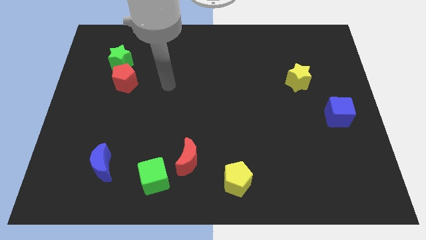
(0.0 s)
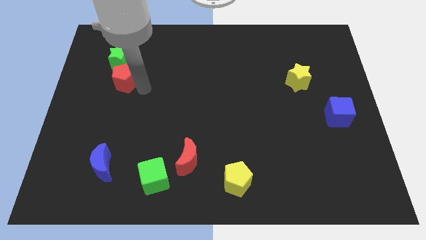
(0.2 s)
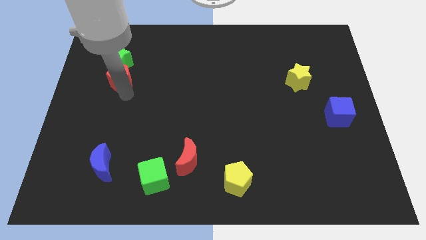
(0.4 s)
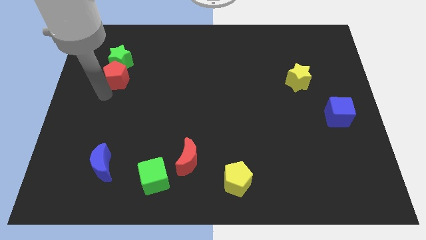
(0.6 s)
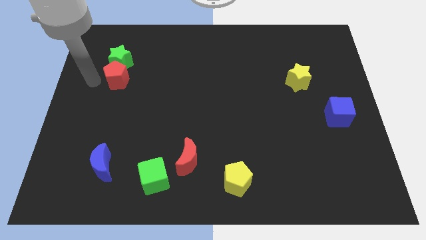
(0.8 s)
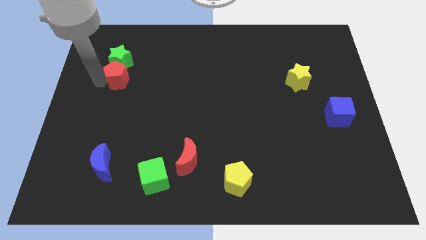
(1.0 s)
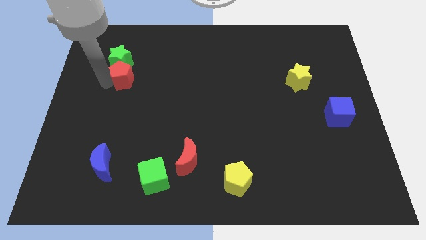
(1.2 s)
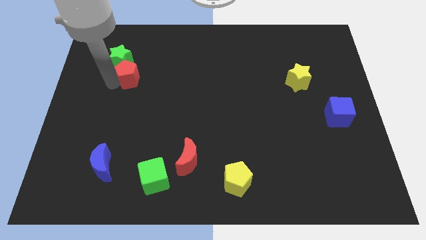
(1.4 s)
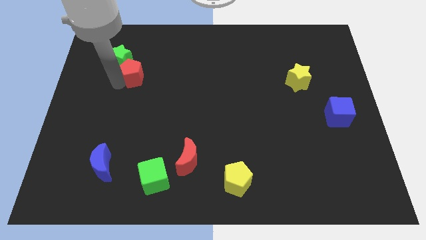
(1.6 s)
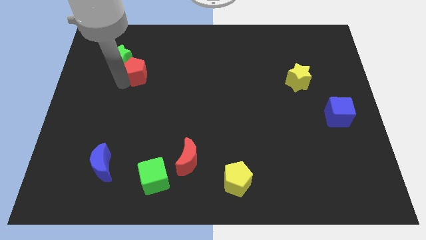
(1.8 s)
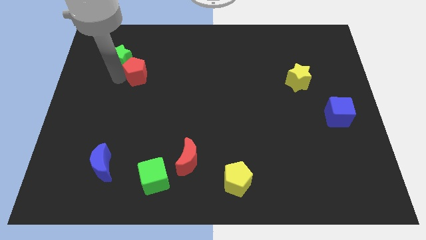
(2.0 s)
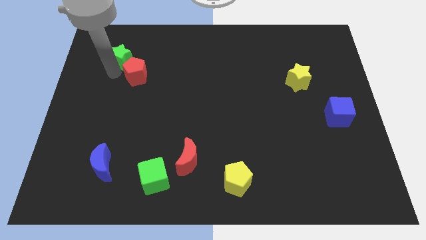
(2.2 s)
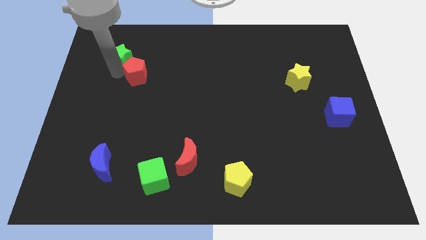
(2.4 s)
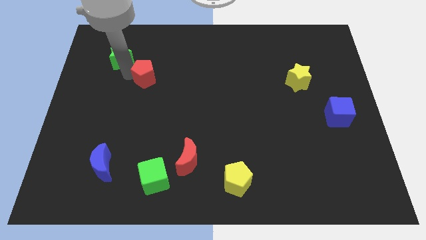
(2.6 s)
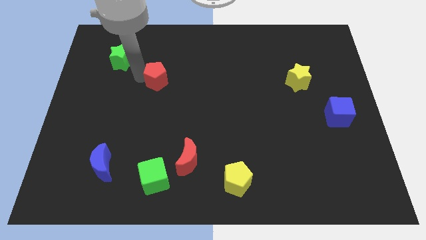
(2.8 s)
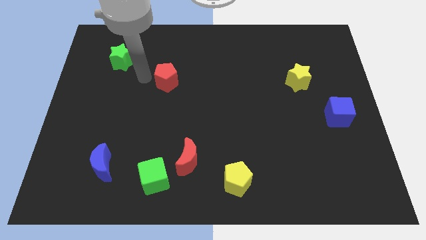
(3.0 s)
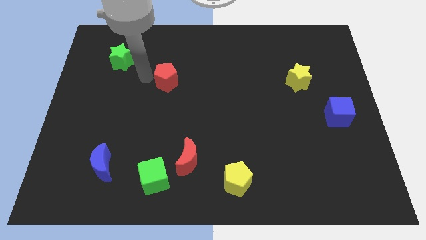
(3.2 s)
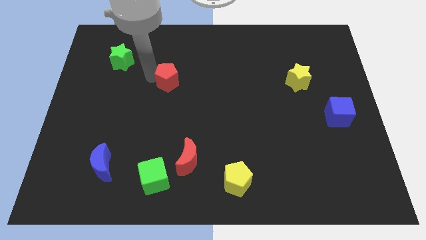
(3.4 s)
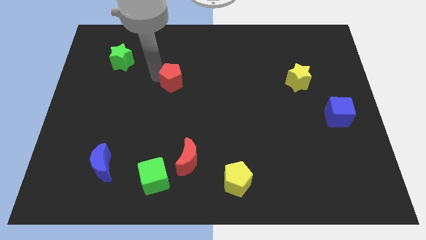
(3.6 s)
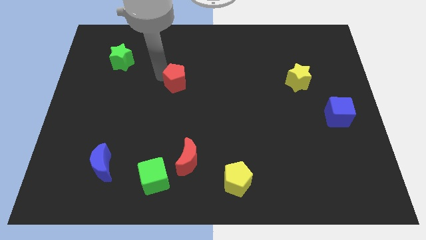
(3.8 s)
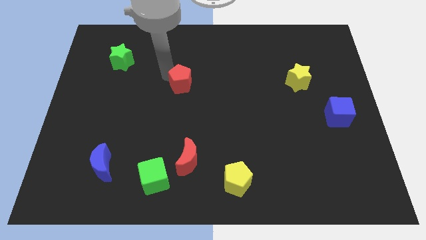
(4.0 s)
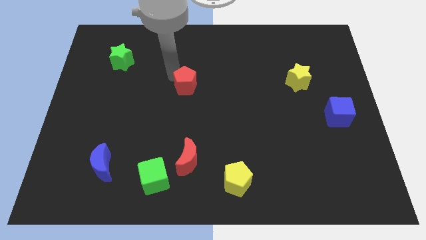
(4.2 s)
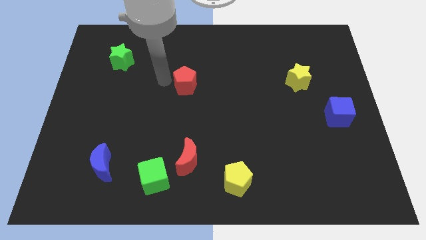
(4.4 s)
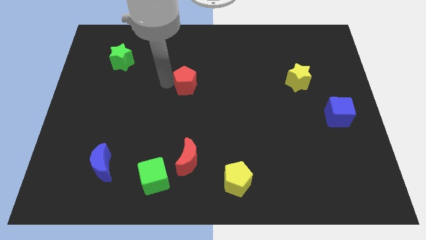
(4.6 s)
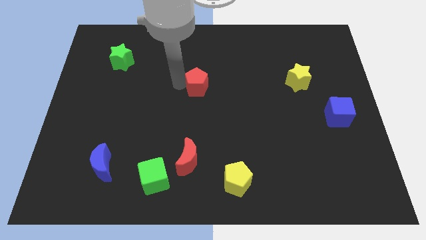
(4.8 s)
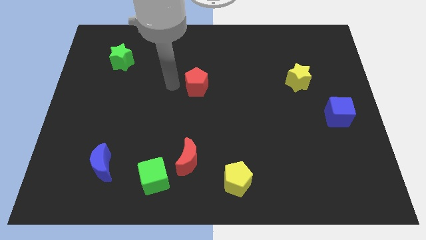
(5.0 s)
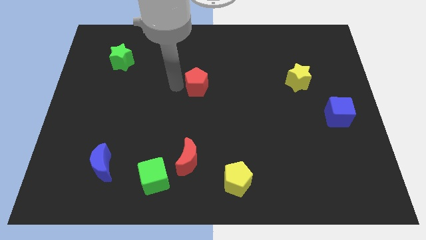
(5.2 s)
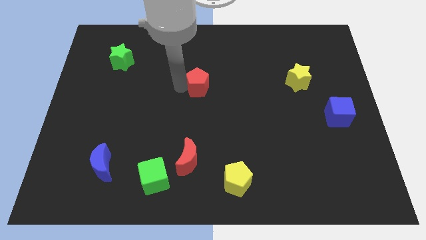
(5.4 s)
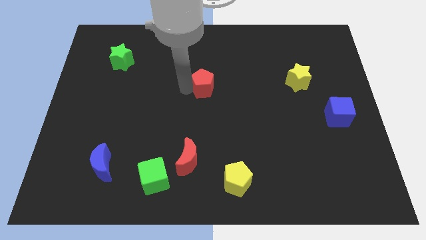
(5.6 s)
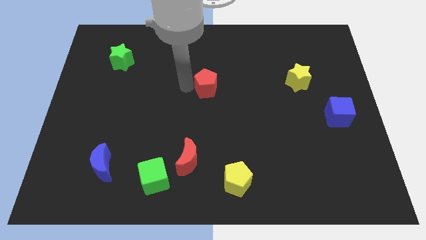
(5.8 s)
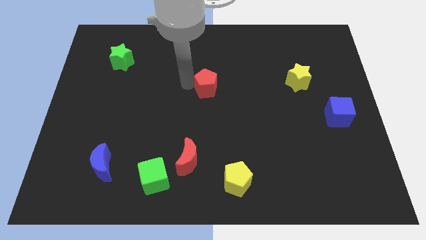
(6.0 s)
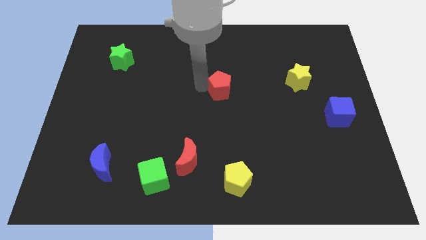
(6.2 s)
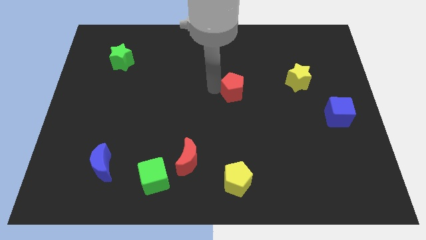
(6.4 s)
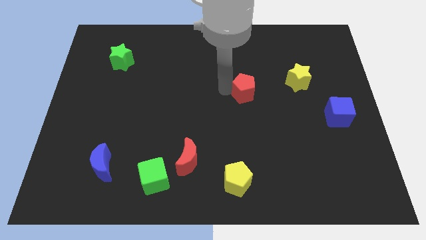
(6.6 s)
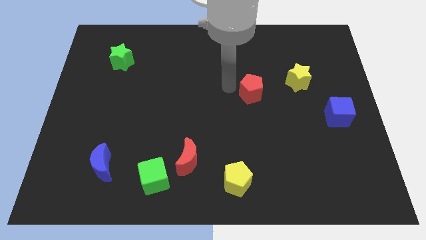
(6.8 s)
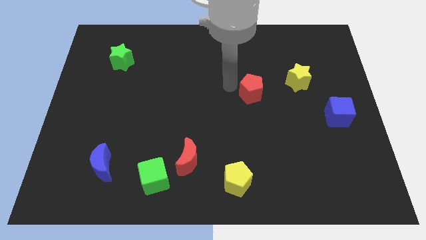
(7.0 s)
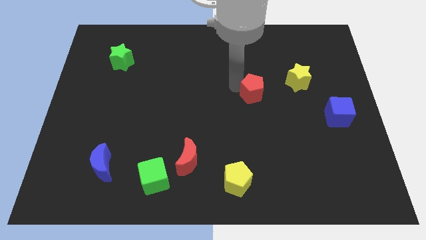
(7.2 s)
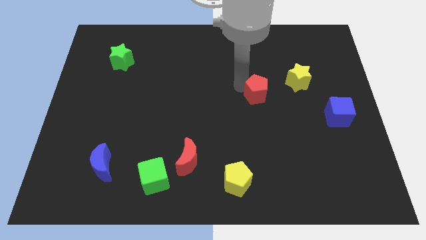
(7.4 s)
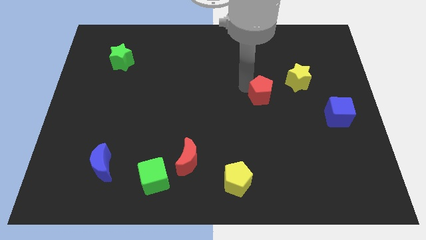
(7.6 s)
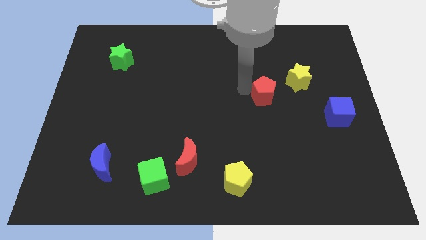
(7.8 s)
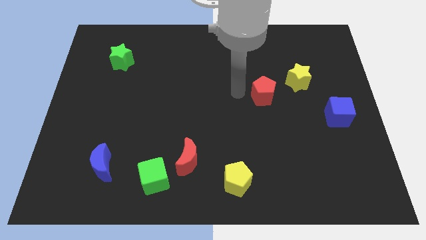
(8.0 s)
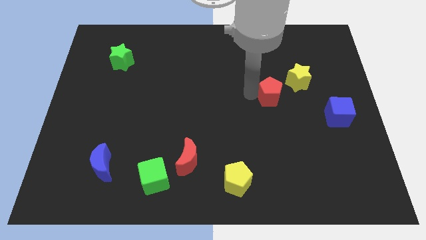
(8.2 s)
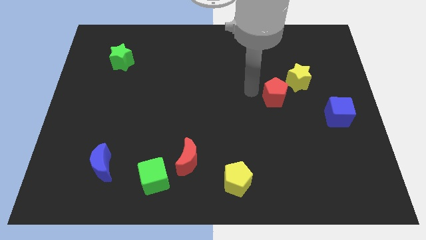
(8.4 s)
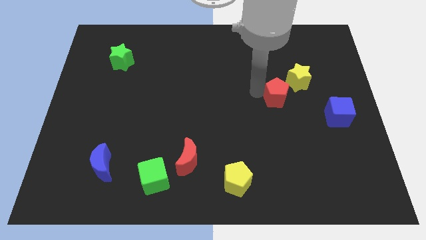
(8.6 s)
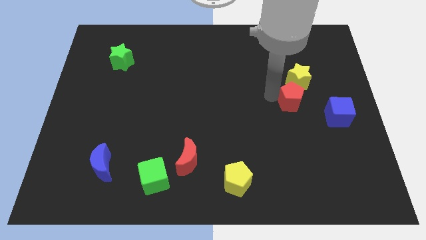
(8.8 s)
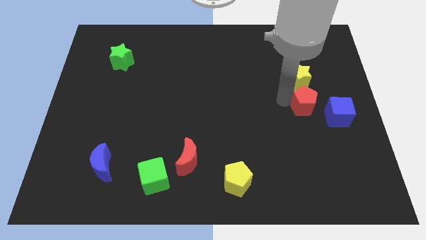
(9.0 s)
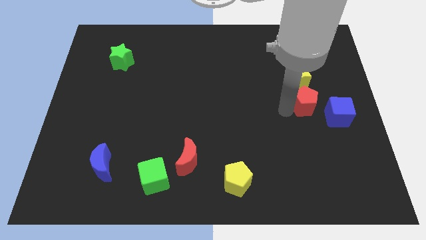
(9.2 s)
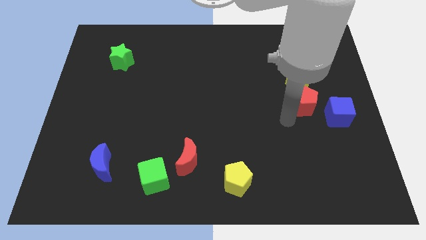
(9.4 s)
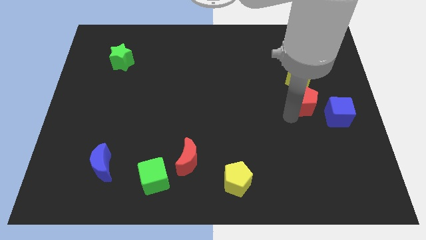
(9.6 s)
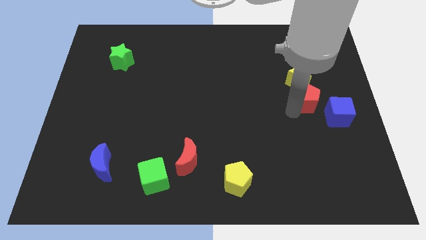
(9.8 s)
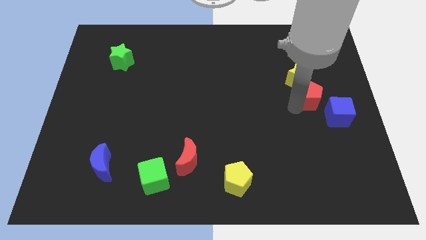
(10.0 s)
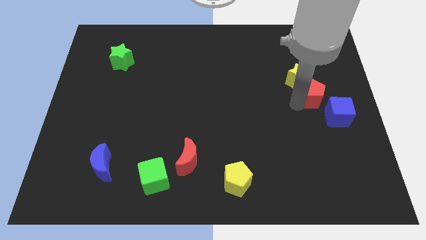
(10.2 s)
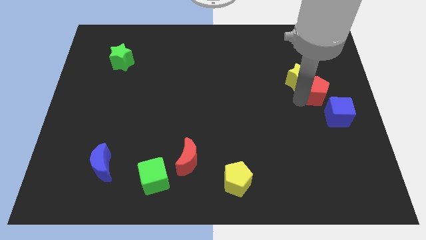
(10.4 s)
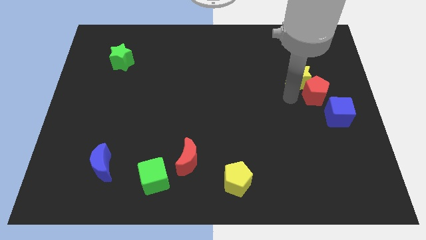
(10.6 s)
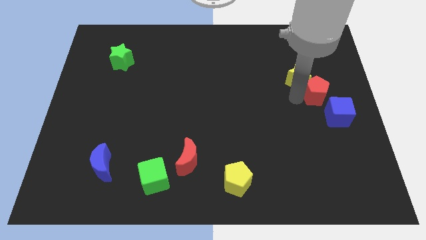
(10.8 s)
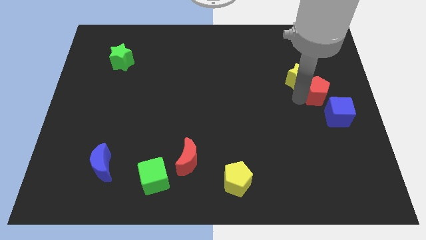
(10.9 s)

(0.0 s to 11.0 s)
slide the red pentagon to the right side
